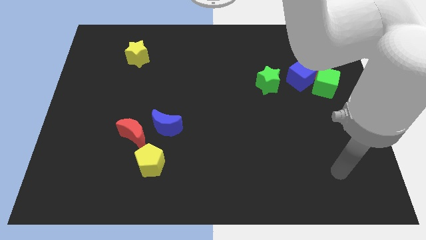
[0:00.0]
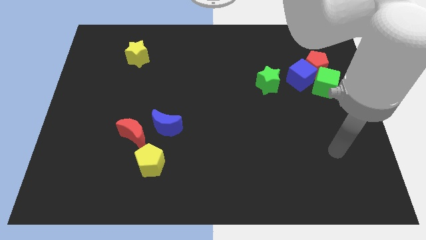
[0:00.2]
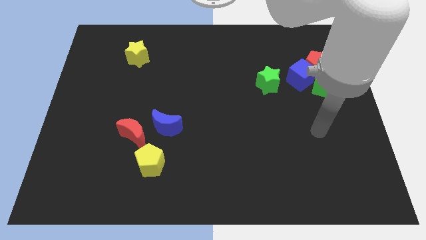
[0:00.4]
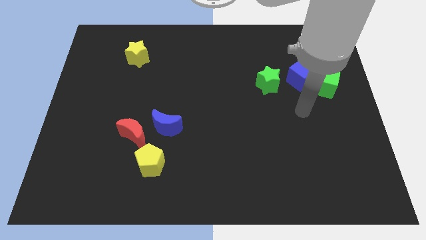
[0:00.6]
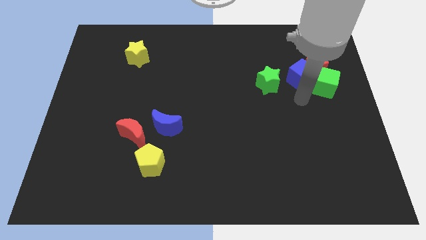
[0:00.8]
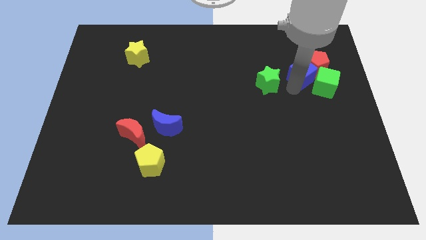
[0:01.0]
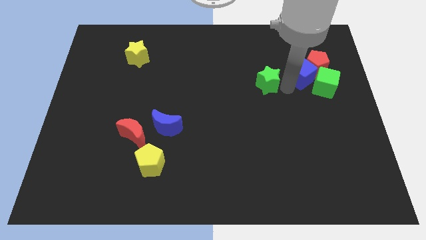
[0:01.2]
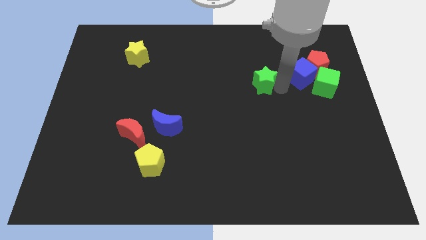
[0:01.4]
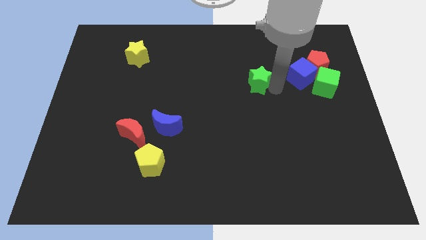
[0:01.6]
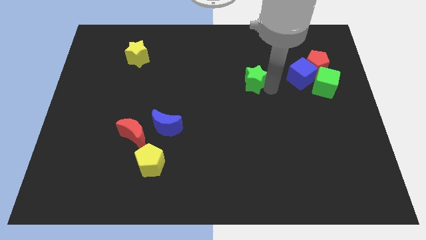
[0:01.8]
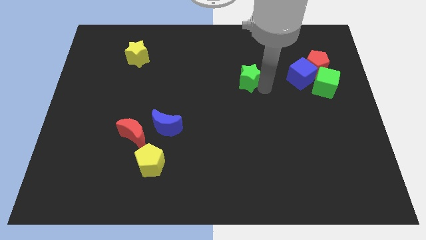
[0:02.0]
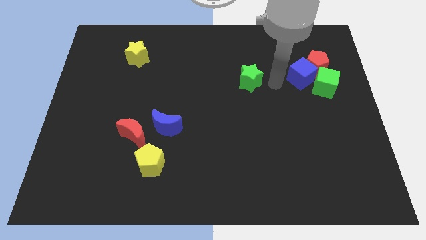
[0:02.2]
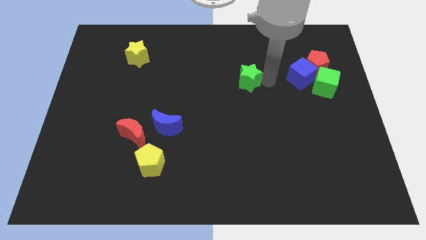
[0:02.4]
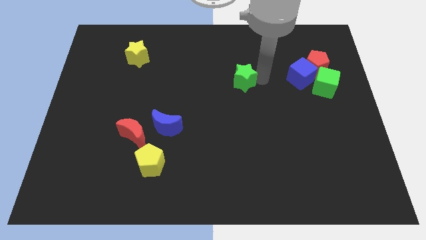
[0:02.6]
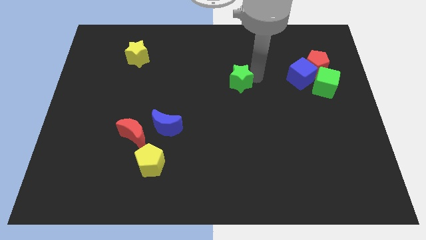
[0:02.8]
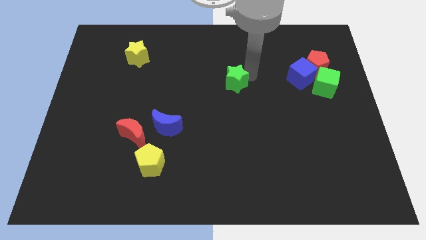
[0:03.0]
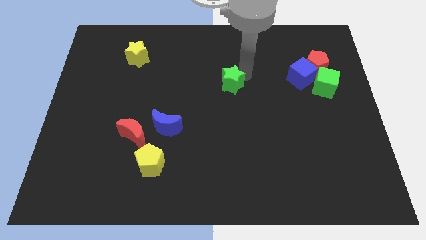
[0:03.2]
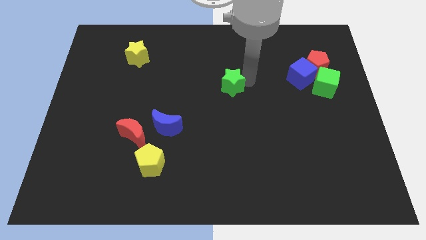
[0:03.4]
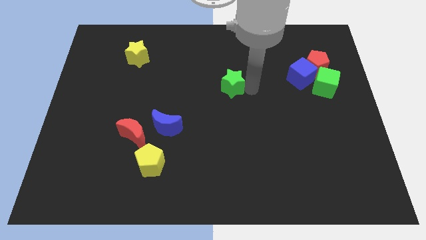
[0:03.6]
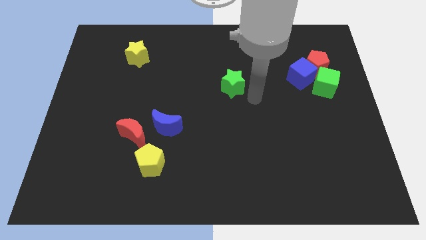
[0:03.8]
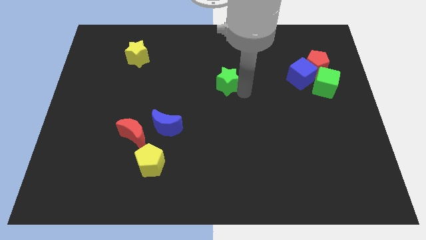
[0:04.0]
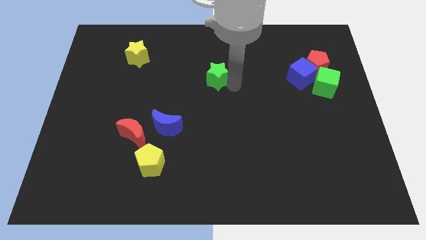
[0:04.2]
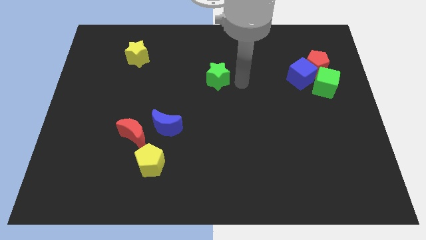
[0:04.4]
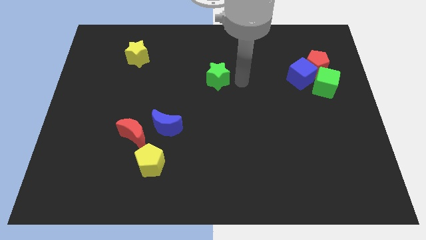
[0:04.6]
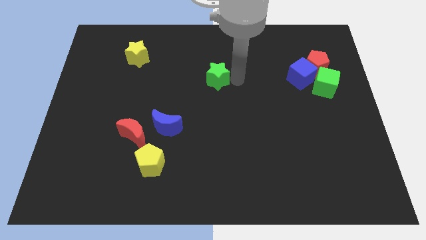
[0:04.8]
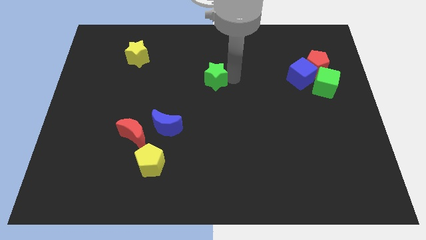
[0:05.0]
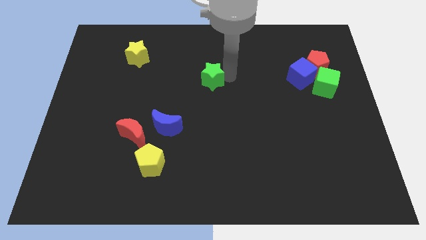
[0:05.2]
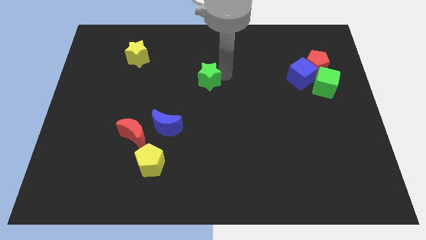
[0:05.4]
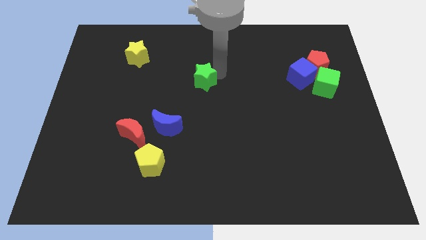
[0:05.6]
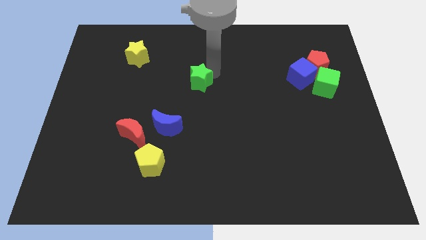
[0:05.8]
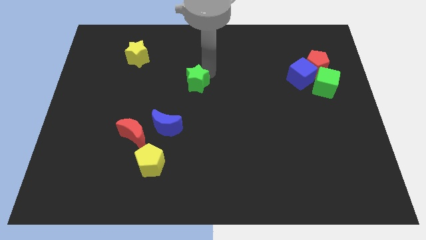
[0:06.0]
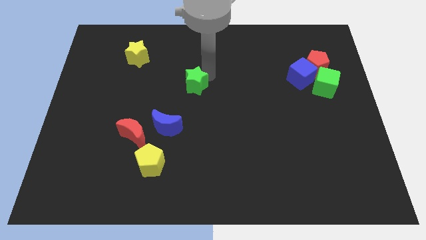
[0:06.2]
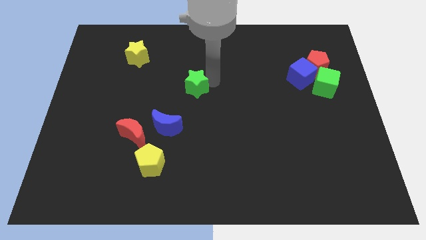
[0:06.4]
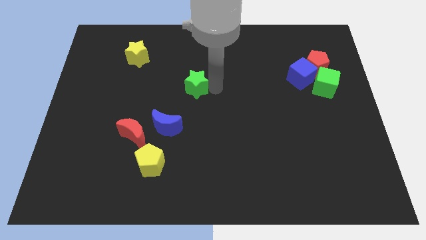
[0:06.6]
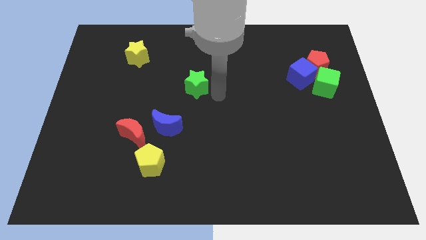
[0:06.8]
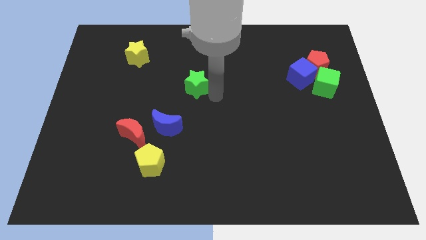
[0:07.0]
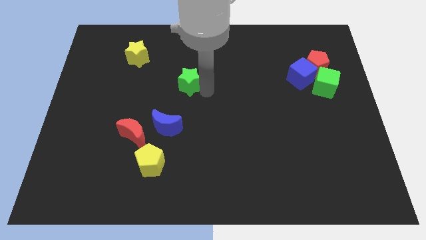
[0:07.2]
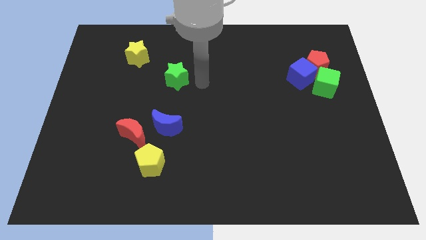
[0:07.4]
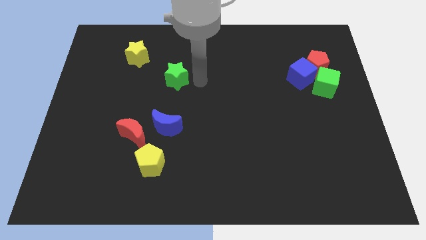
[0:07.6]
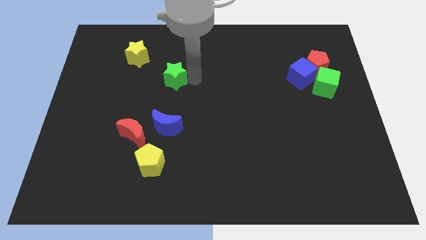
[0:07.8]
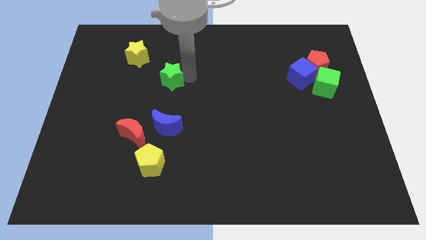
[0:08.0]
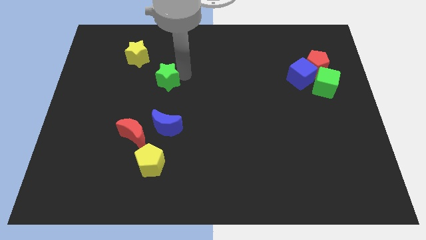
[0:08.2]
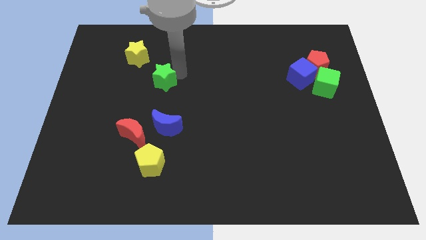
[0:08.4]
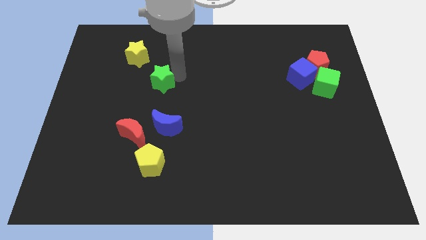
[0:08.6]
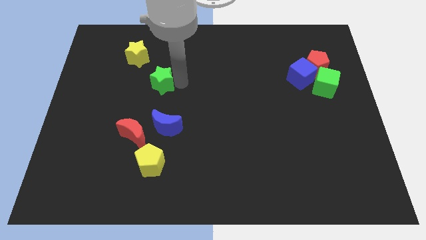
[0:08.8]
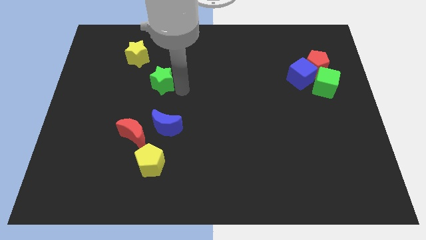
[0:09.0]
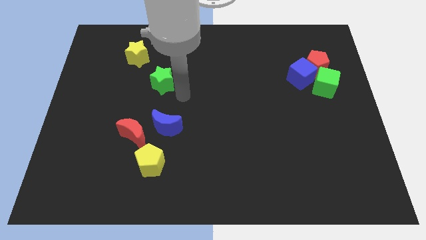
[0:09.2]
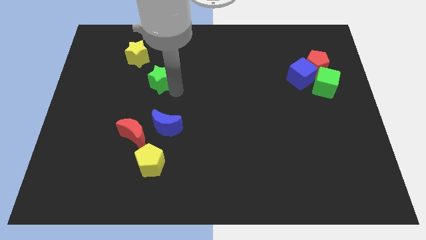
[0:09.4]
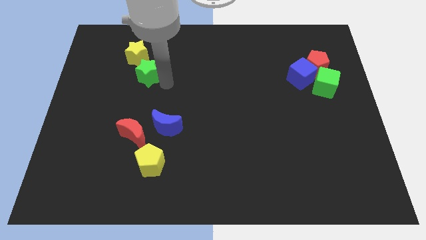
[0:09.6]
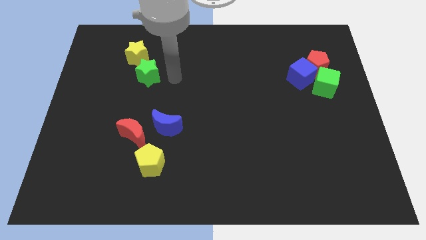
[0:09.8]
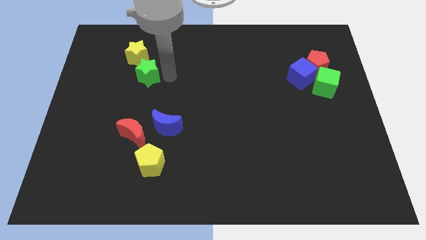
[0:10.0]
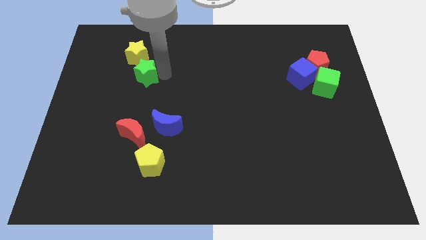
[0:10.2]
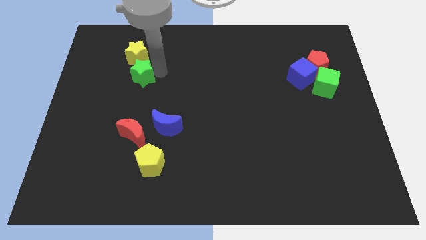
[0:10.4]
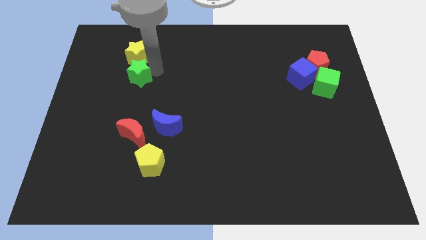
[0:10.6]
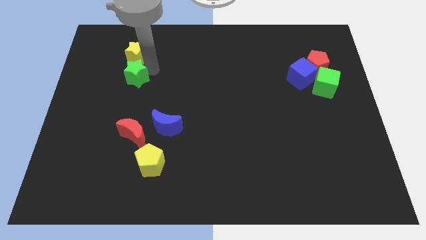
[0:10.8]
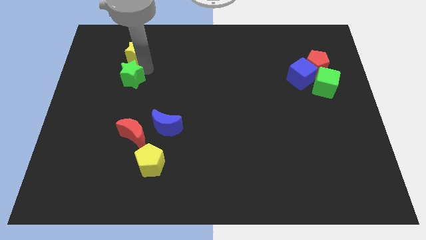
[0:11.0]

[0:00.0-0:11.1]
push the green star diagonally down and to the left of the yellow star

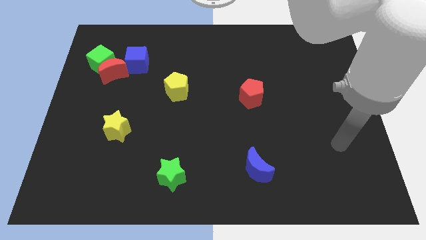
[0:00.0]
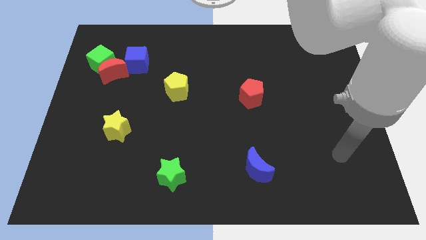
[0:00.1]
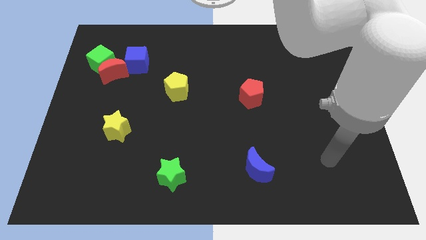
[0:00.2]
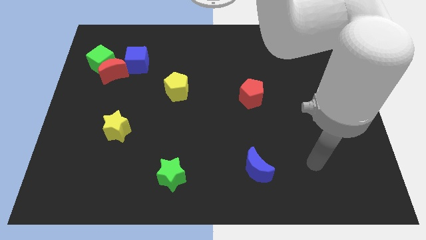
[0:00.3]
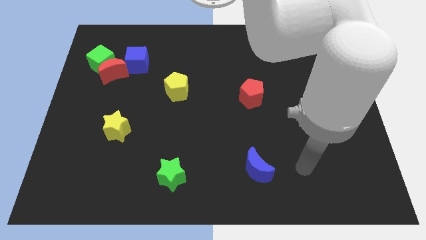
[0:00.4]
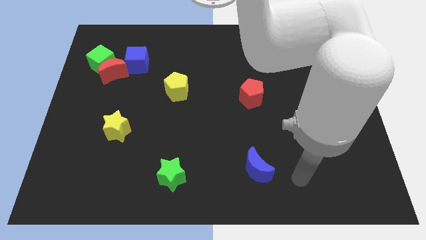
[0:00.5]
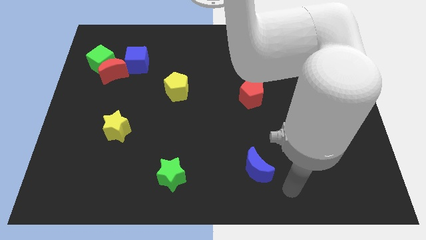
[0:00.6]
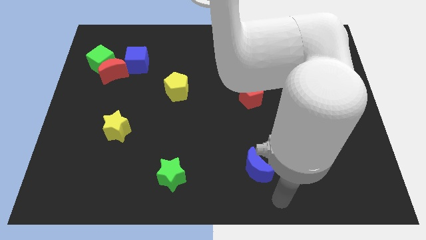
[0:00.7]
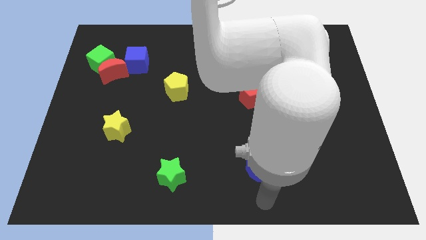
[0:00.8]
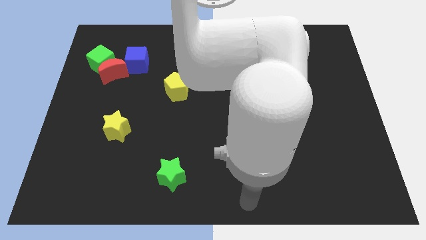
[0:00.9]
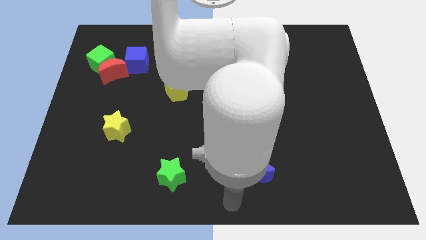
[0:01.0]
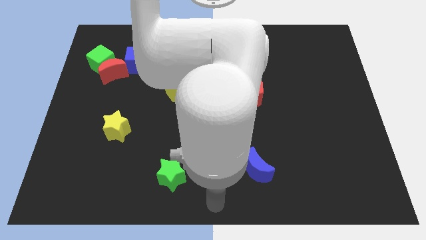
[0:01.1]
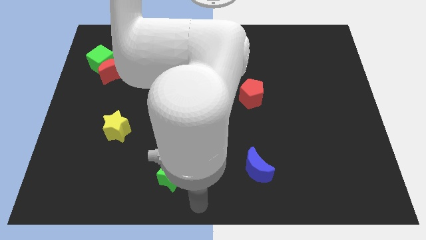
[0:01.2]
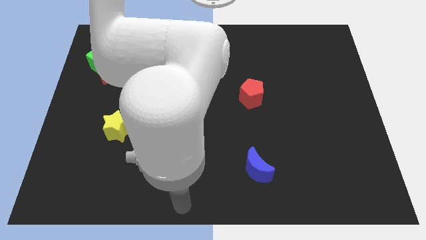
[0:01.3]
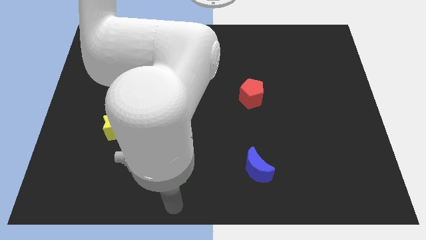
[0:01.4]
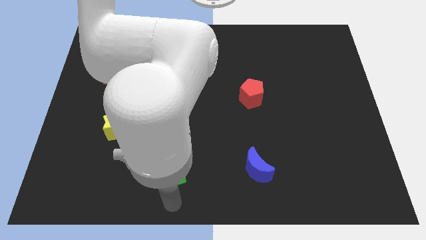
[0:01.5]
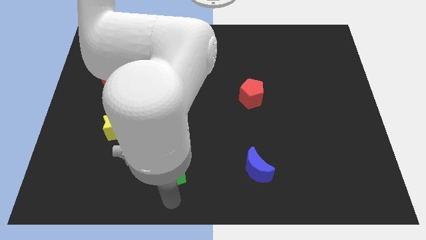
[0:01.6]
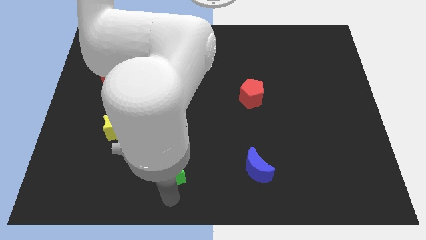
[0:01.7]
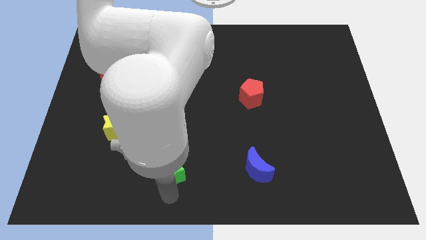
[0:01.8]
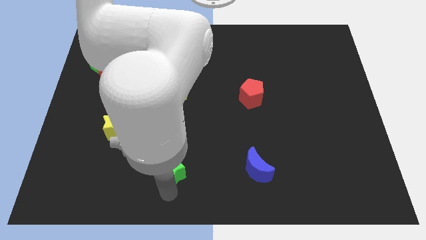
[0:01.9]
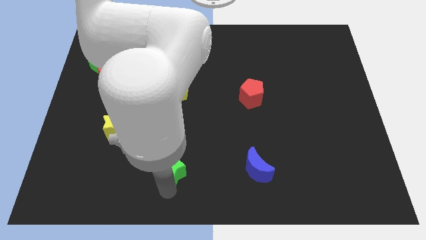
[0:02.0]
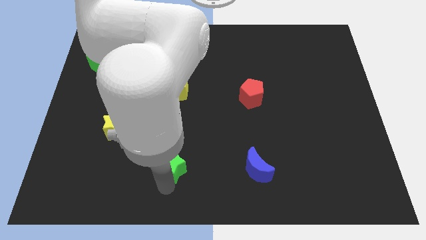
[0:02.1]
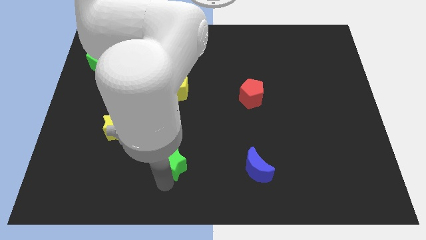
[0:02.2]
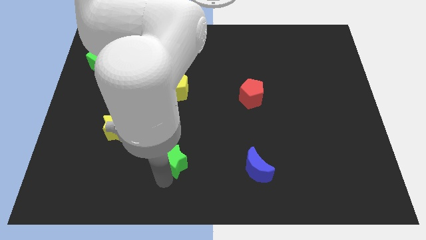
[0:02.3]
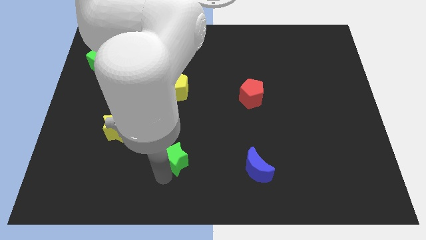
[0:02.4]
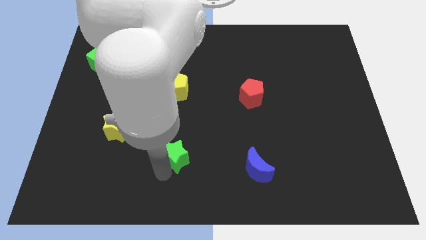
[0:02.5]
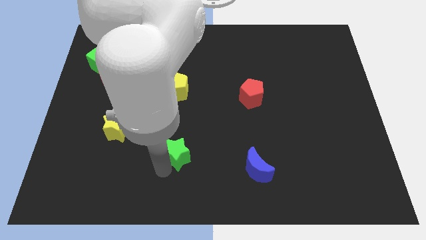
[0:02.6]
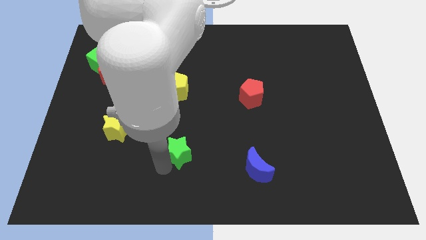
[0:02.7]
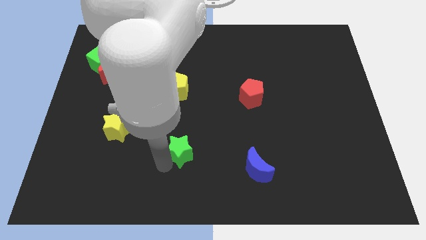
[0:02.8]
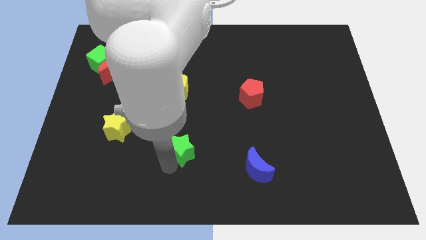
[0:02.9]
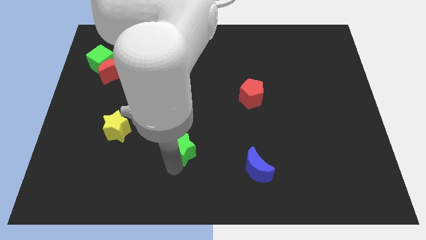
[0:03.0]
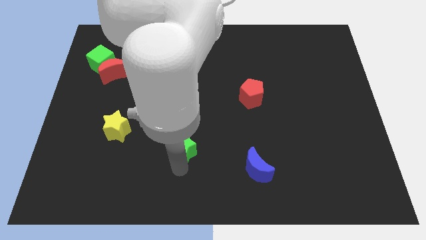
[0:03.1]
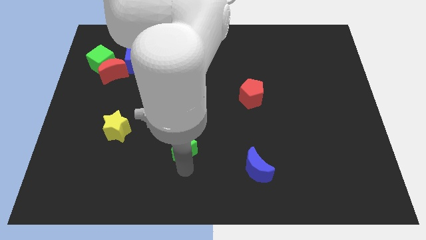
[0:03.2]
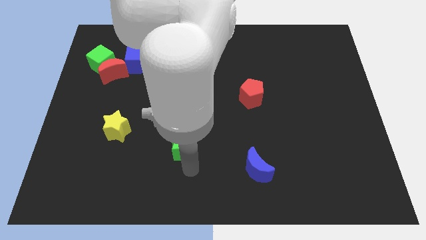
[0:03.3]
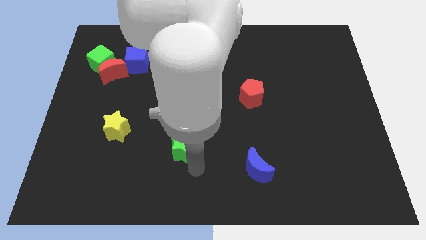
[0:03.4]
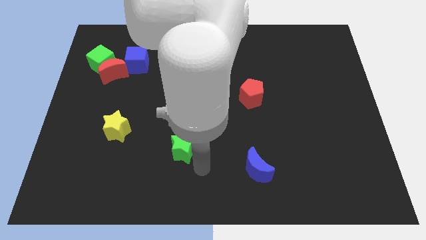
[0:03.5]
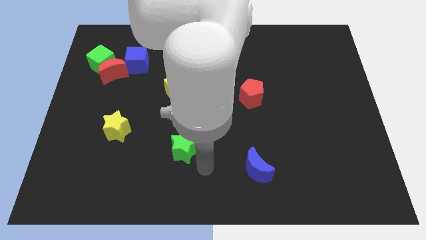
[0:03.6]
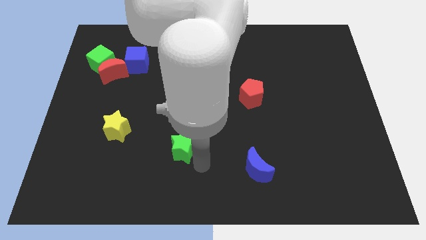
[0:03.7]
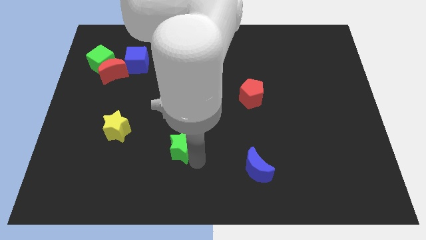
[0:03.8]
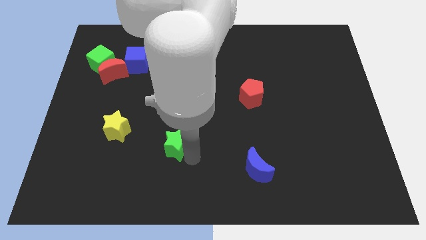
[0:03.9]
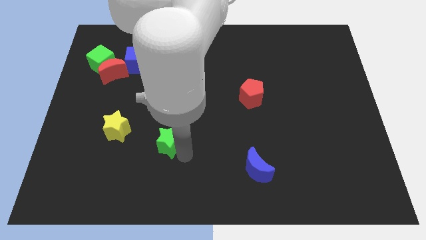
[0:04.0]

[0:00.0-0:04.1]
slide the green star below the yellow pentagon
